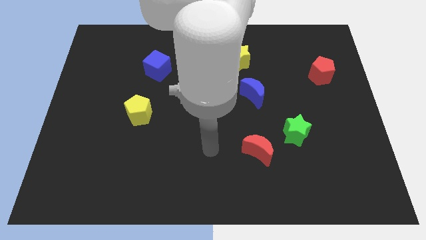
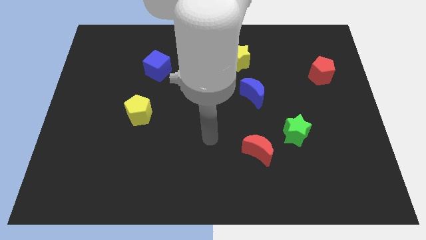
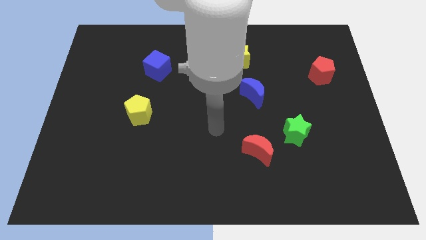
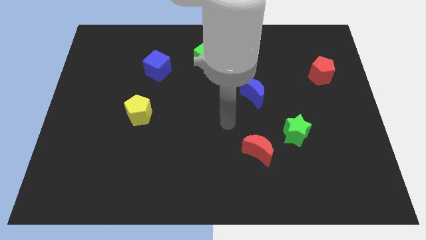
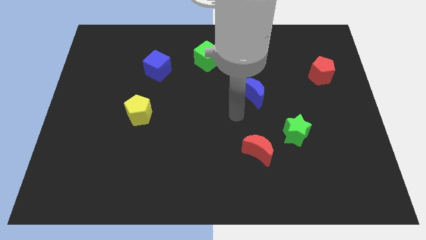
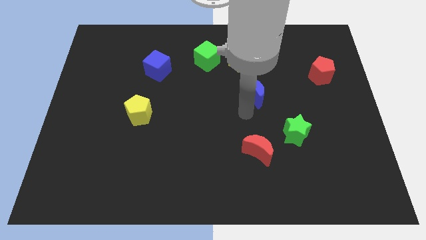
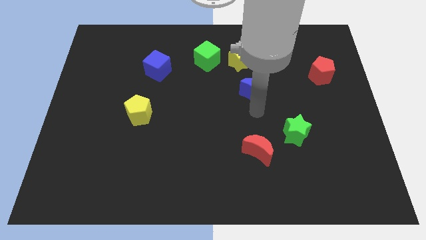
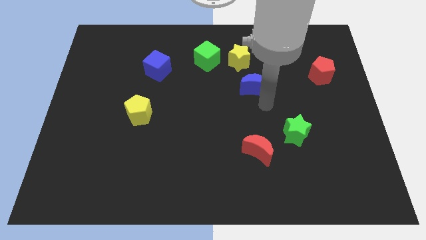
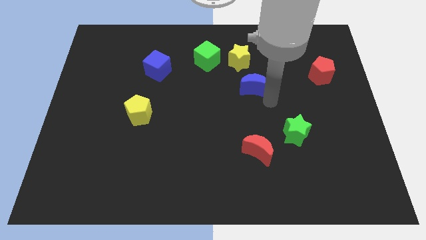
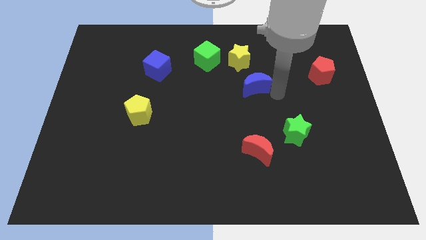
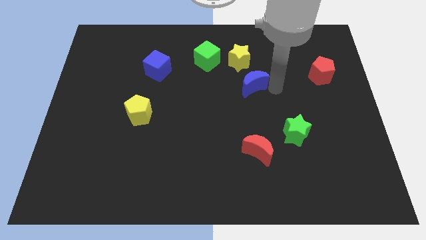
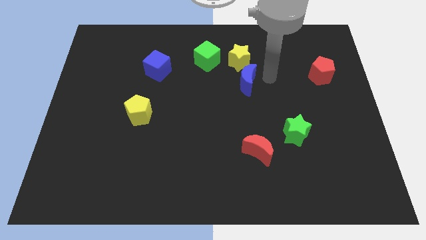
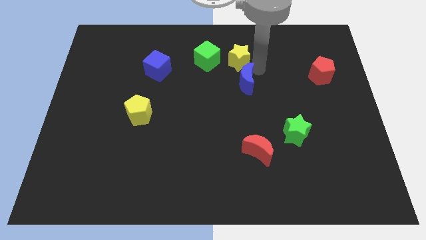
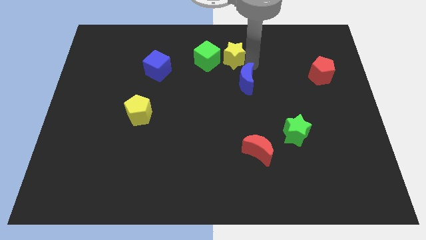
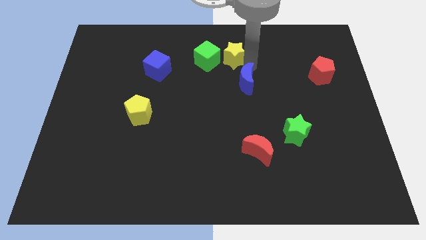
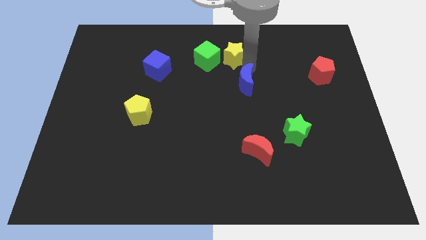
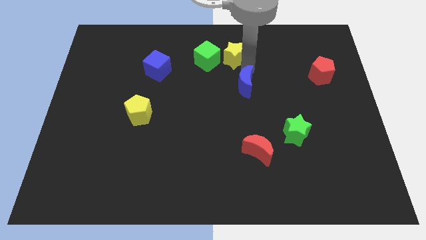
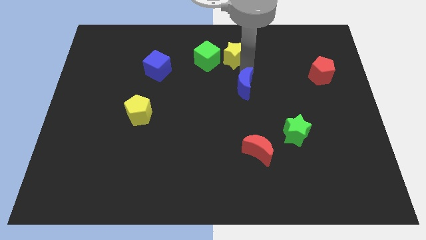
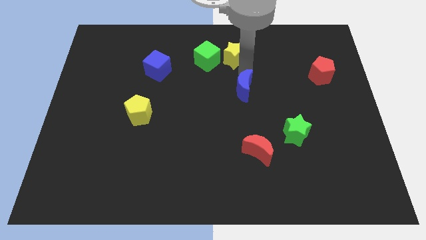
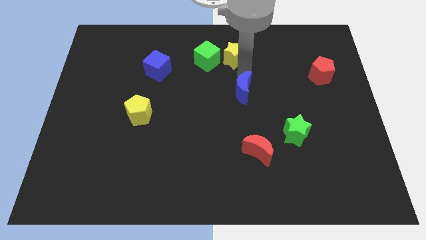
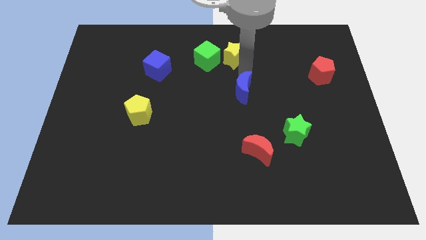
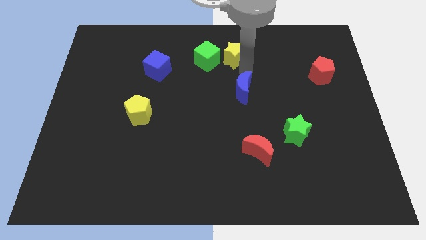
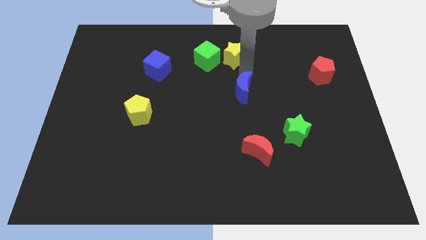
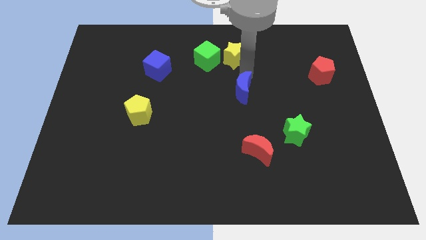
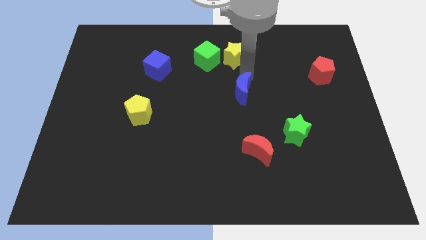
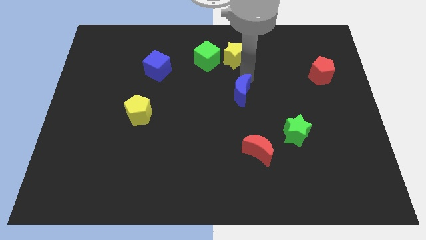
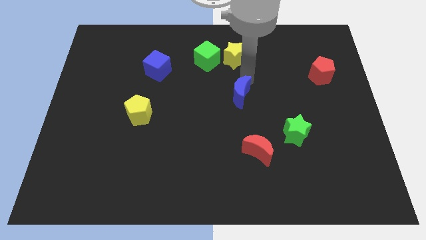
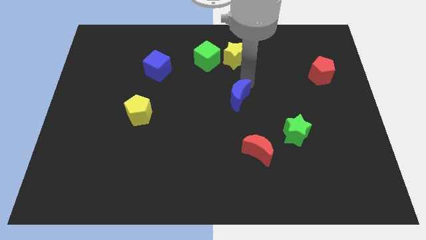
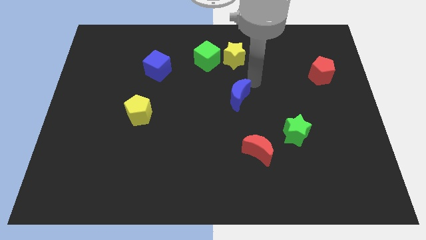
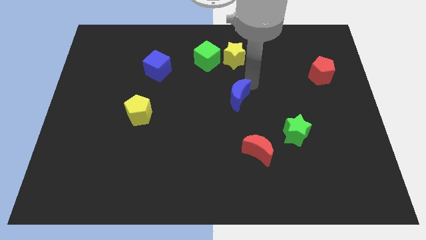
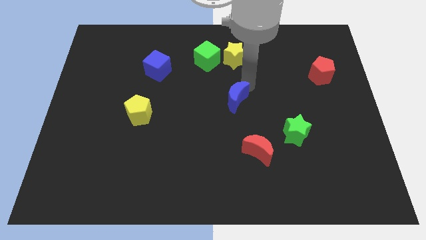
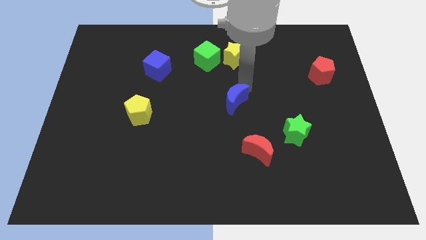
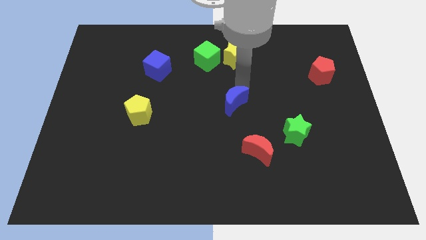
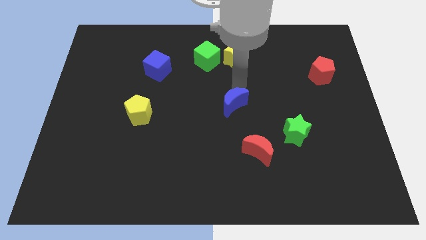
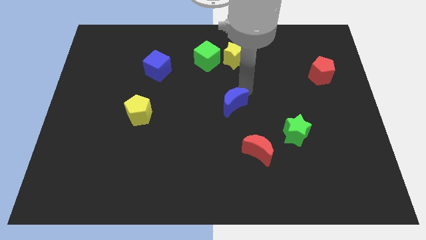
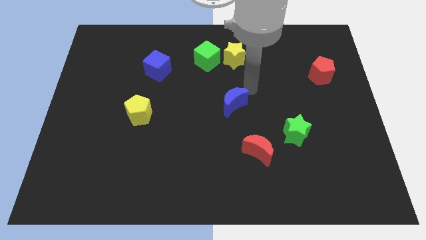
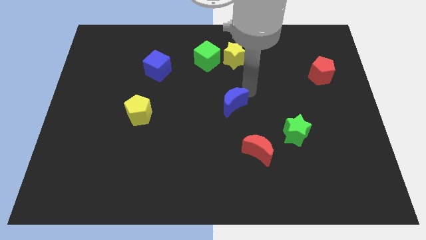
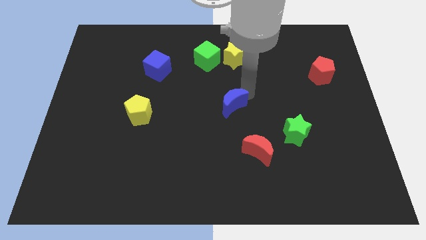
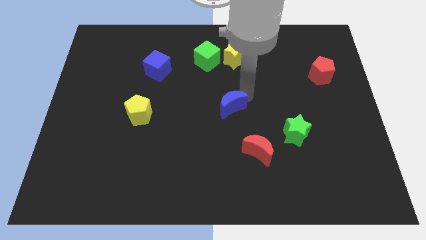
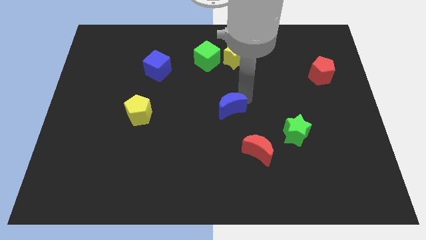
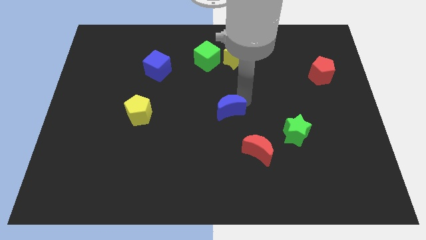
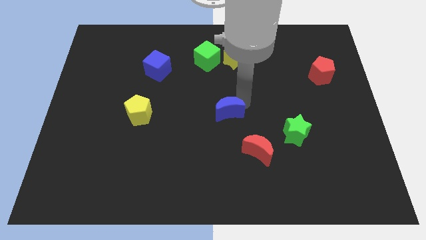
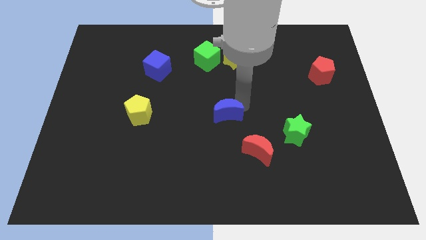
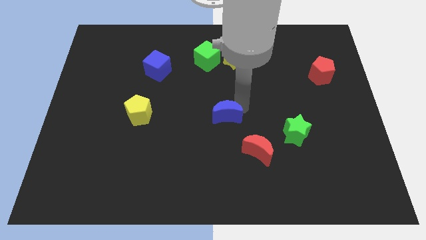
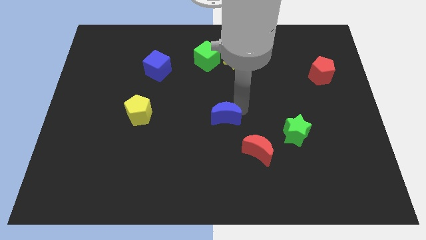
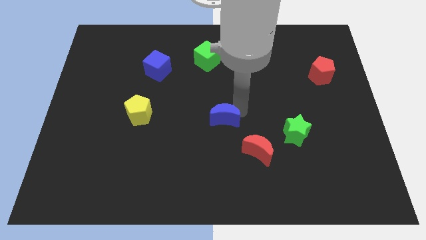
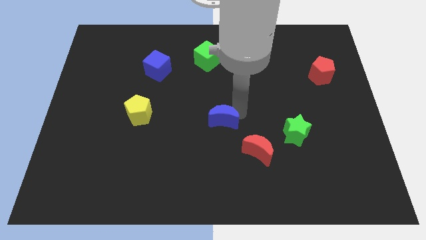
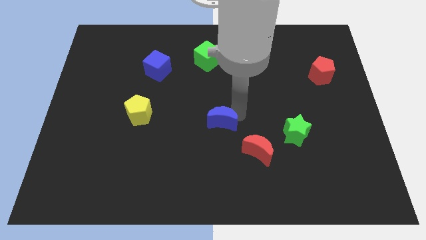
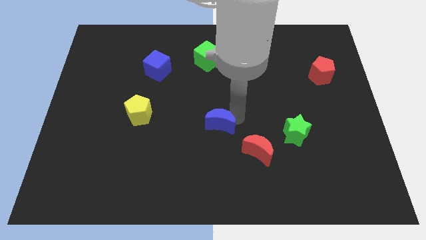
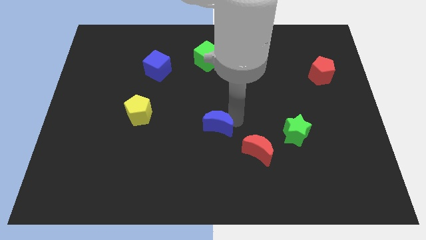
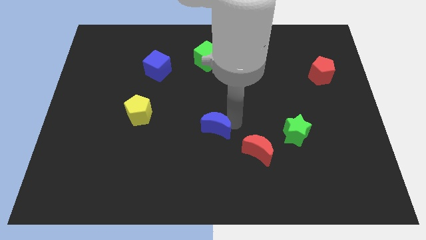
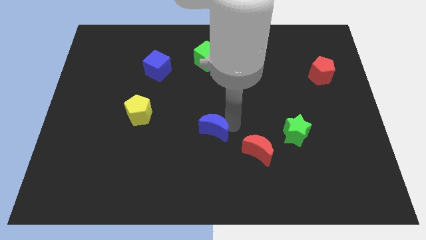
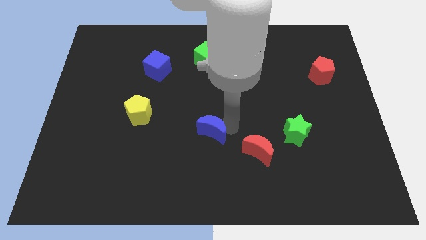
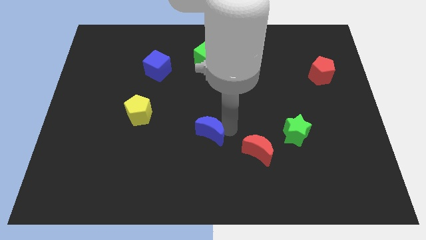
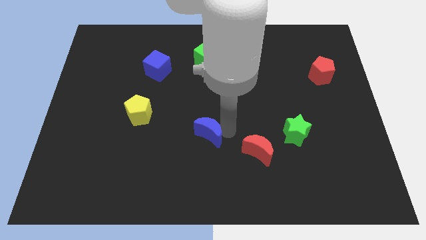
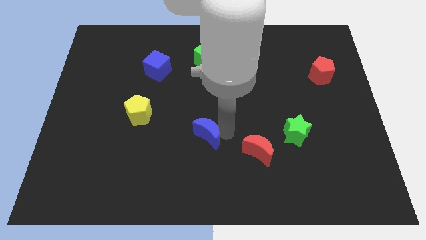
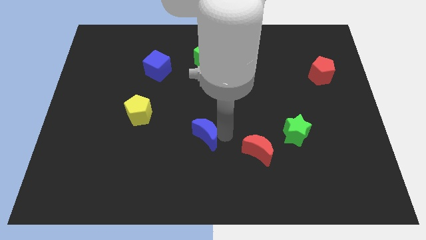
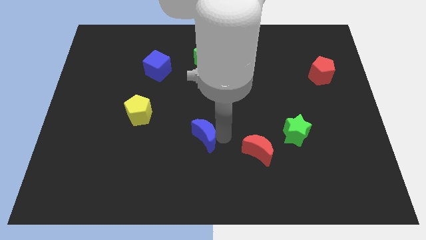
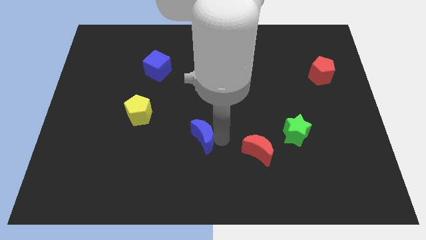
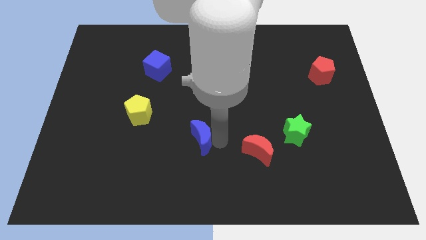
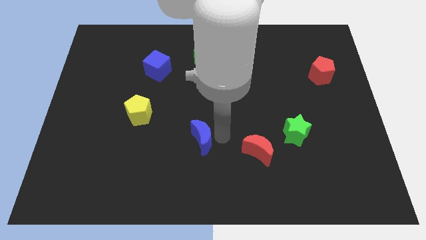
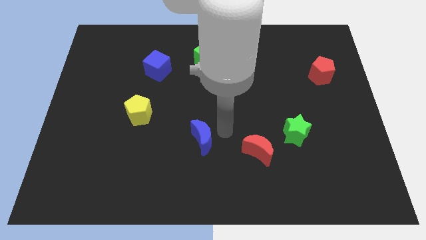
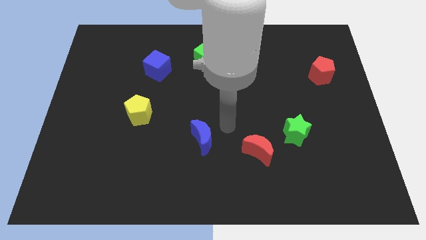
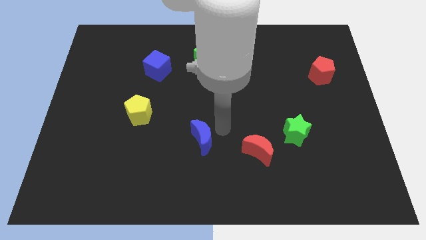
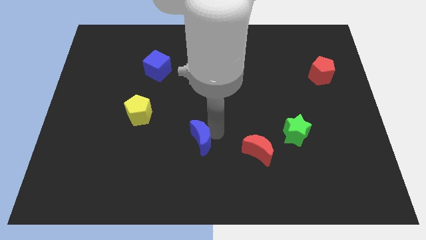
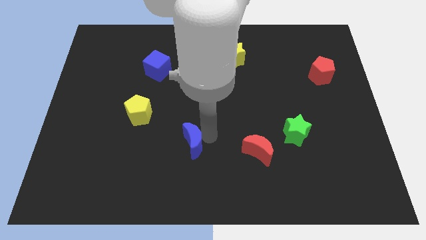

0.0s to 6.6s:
slide the blue moon diagonally downwards and to the left

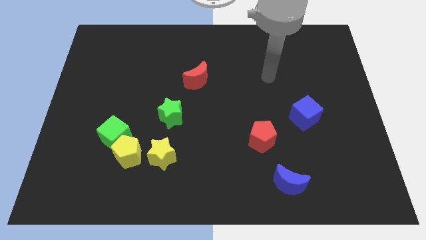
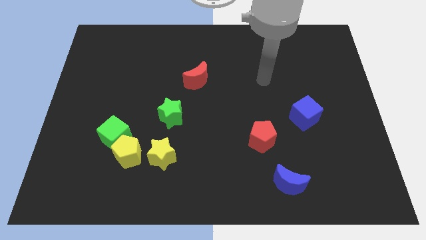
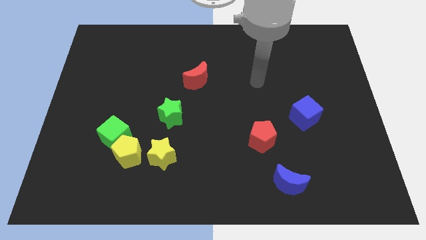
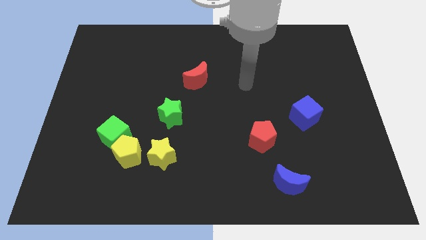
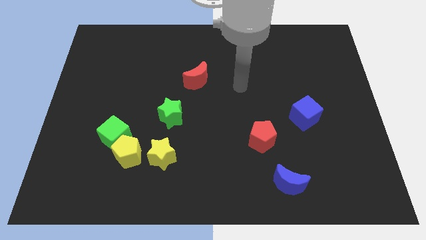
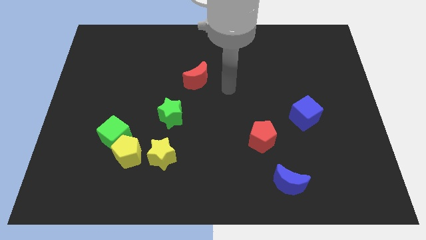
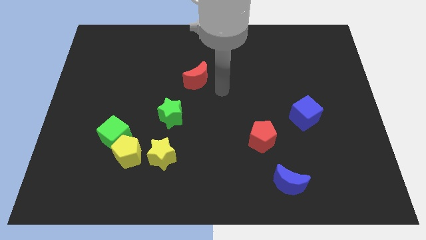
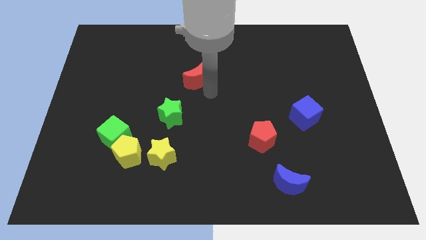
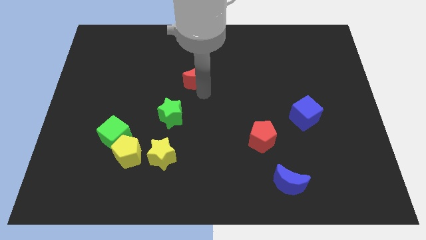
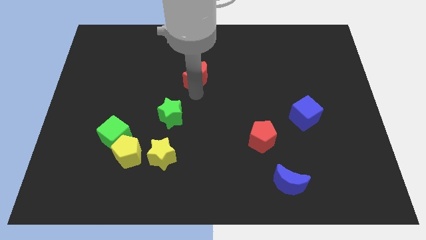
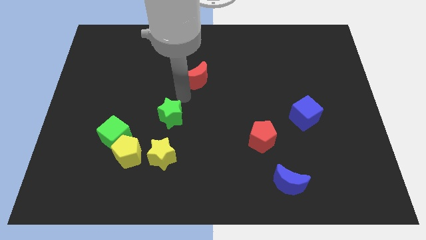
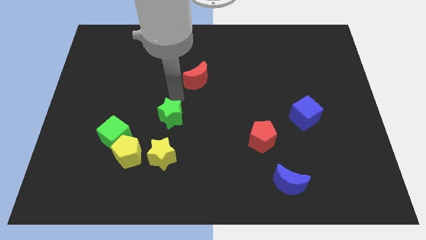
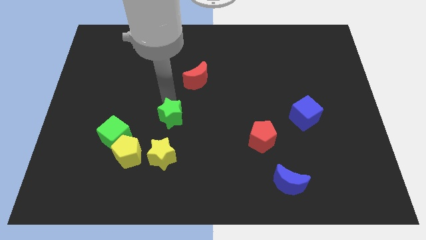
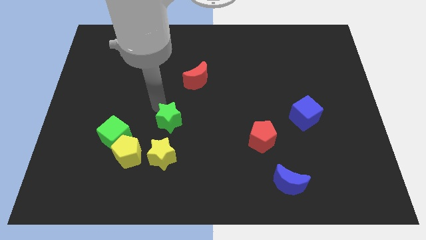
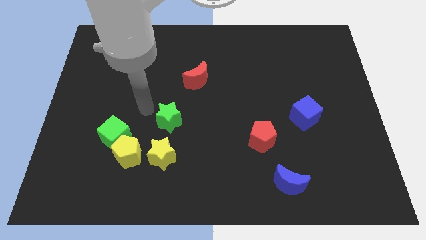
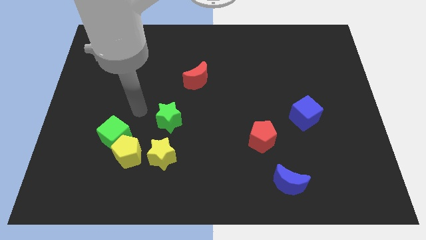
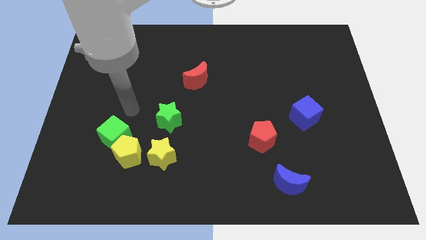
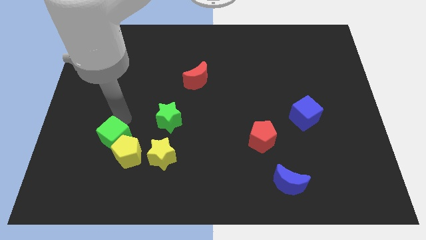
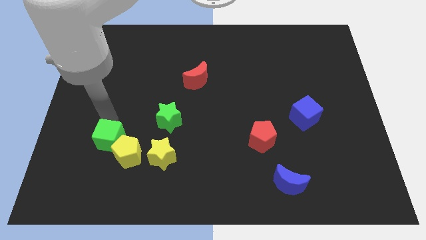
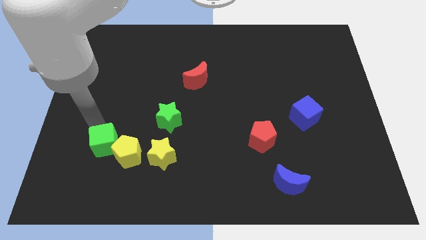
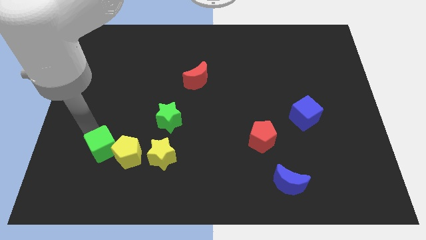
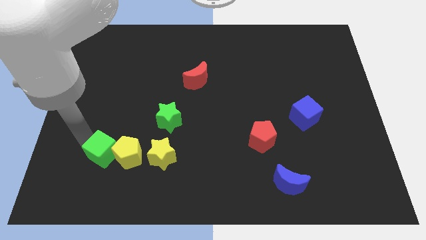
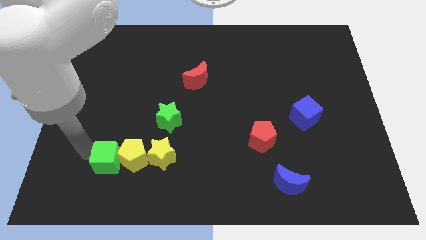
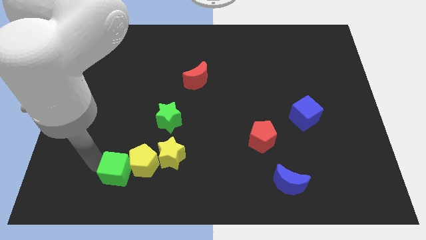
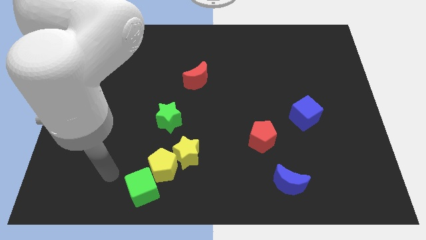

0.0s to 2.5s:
move the yellow pentagon a little bit right
